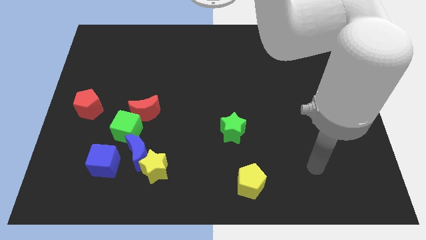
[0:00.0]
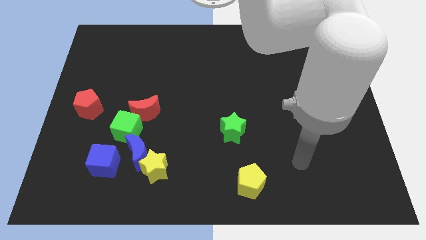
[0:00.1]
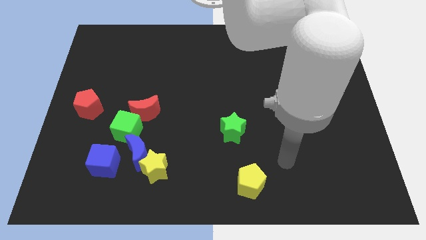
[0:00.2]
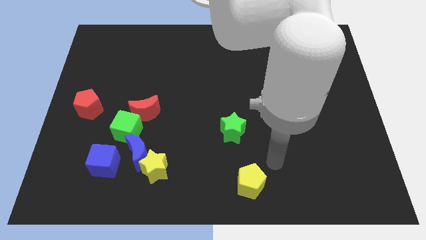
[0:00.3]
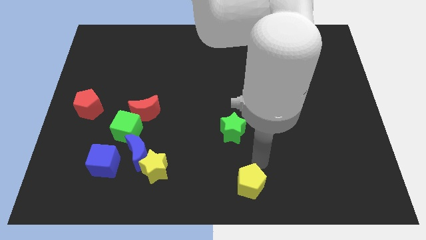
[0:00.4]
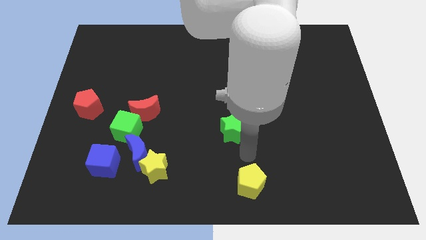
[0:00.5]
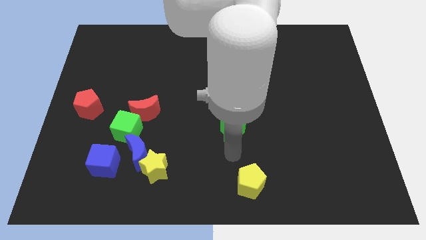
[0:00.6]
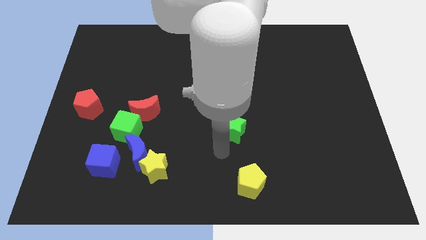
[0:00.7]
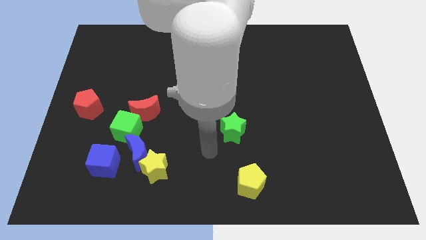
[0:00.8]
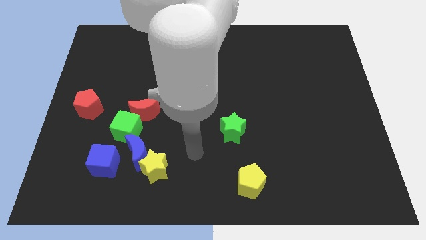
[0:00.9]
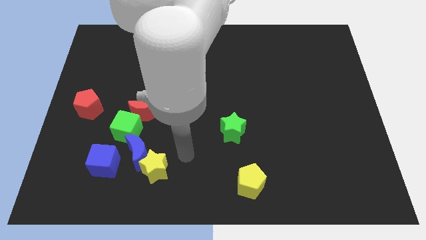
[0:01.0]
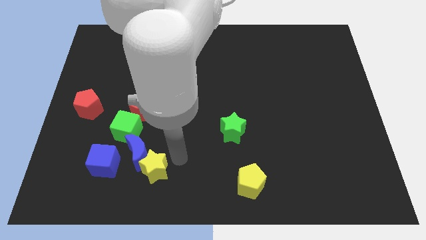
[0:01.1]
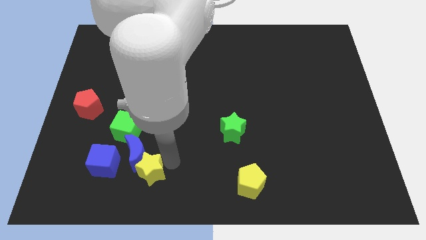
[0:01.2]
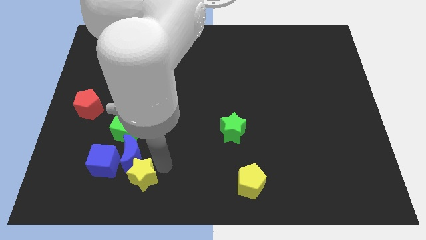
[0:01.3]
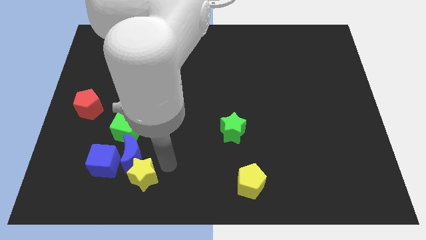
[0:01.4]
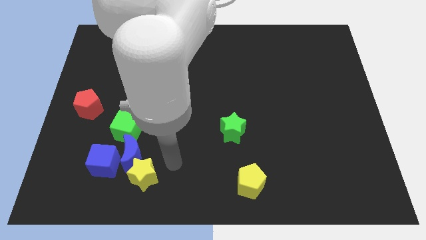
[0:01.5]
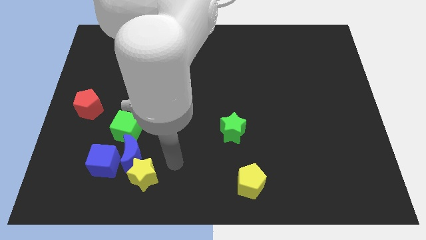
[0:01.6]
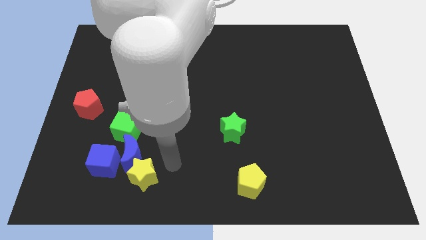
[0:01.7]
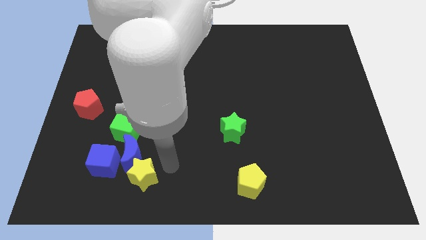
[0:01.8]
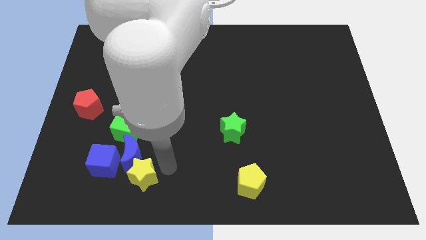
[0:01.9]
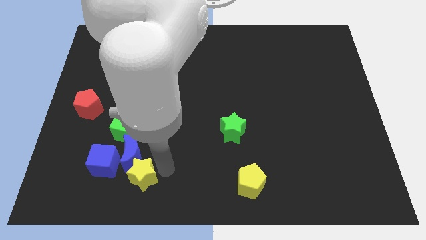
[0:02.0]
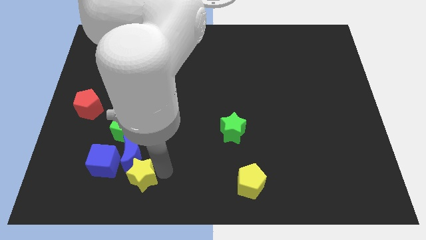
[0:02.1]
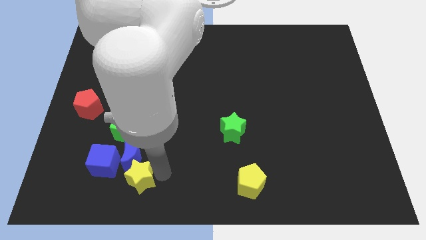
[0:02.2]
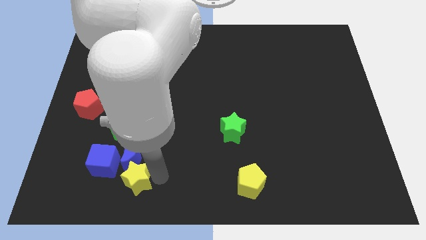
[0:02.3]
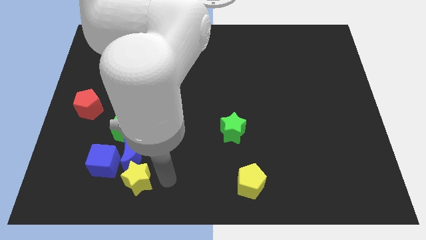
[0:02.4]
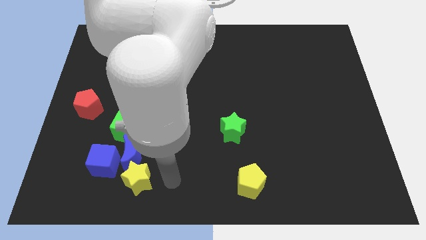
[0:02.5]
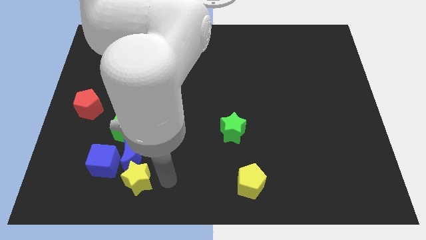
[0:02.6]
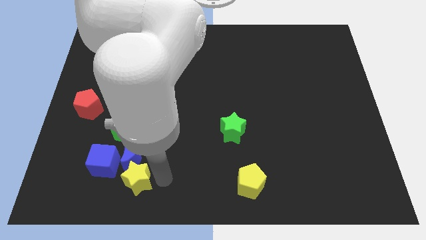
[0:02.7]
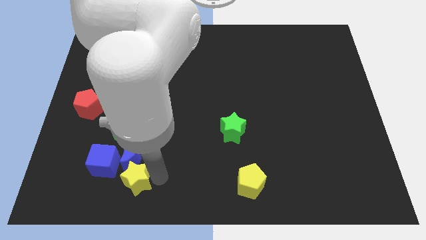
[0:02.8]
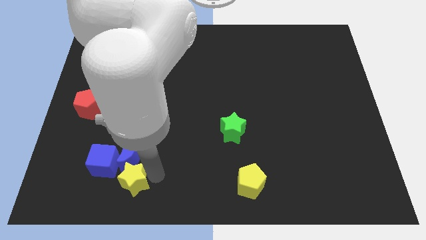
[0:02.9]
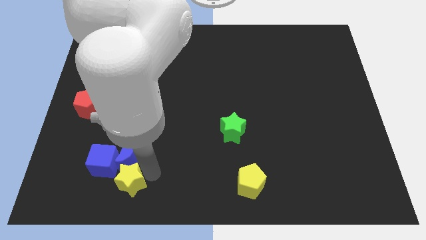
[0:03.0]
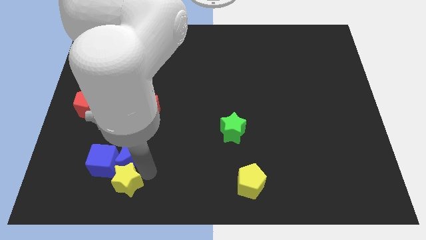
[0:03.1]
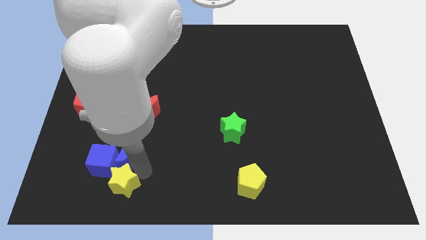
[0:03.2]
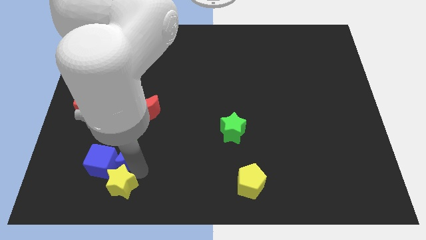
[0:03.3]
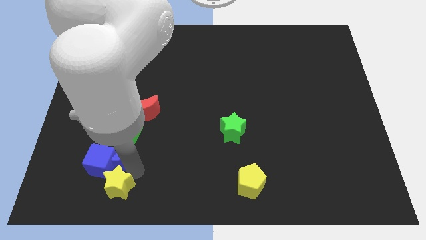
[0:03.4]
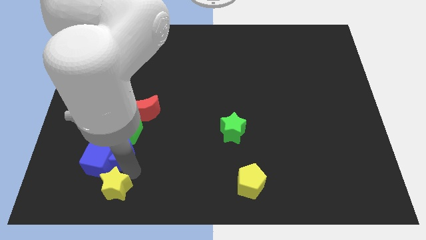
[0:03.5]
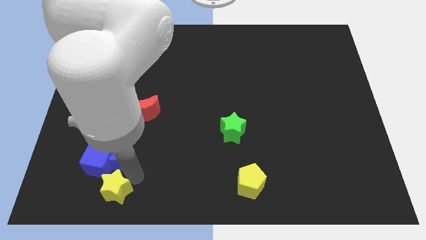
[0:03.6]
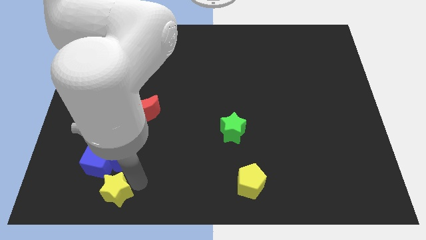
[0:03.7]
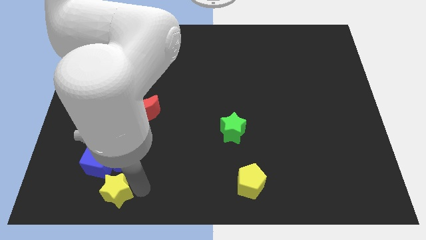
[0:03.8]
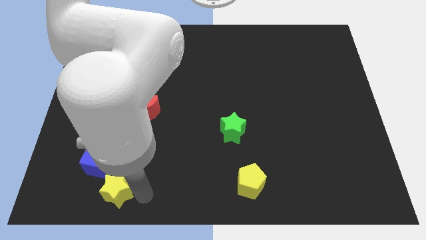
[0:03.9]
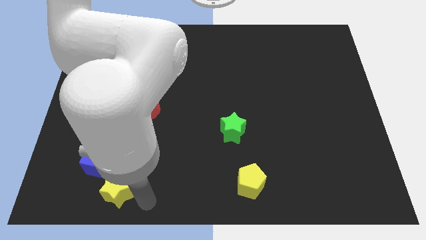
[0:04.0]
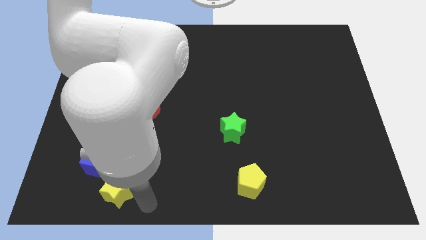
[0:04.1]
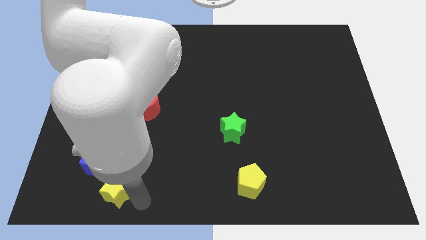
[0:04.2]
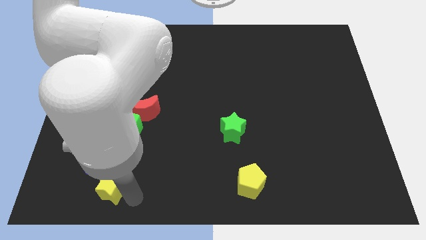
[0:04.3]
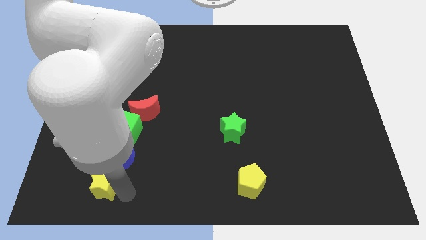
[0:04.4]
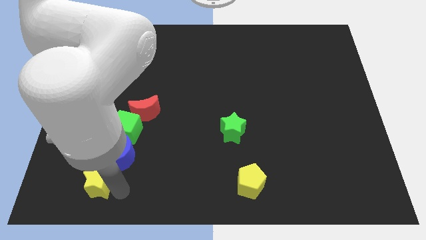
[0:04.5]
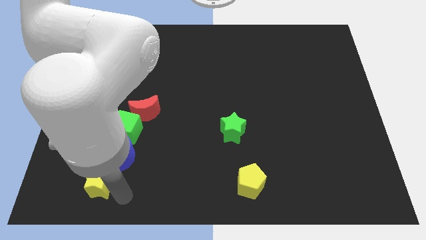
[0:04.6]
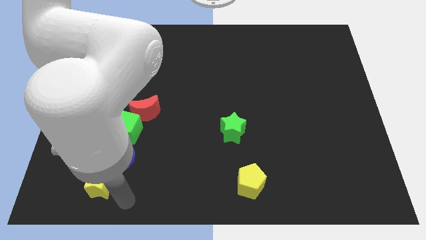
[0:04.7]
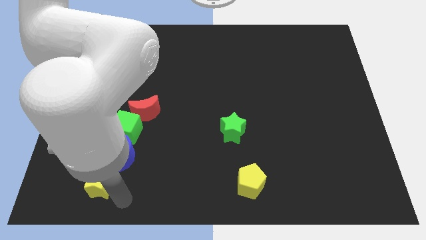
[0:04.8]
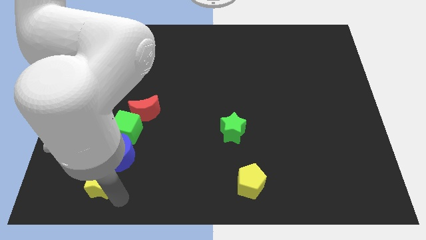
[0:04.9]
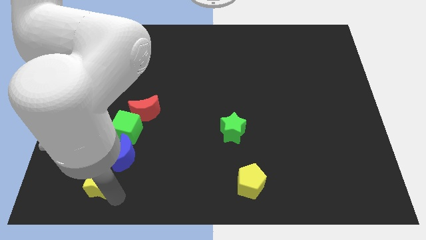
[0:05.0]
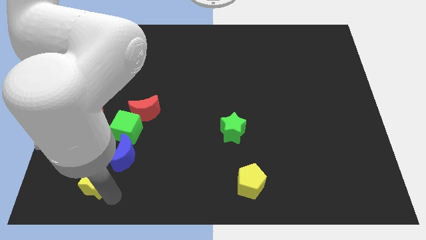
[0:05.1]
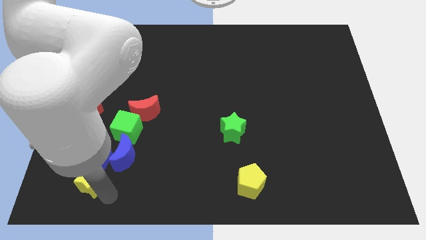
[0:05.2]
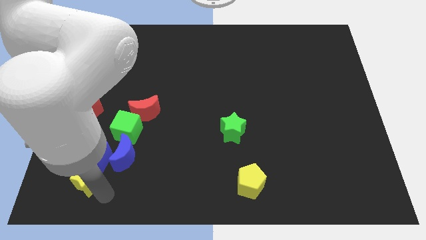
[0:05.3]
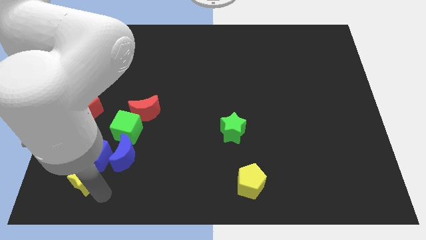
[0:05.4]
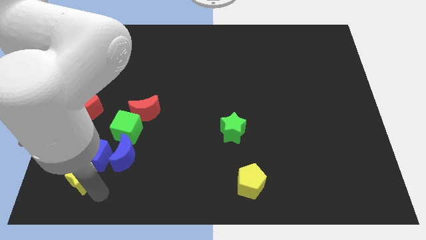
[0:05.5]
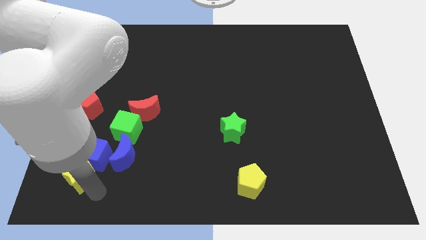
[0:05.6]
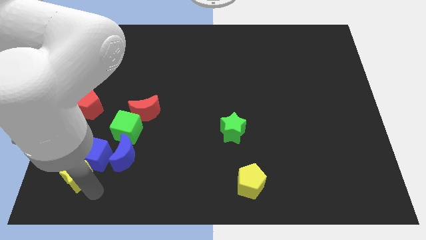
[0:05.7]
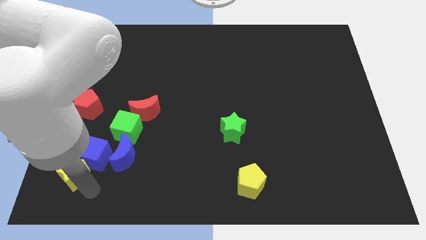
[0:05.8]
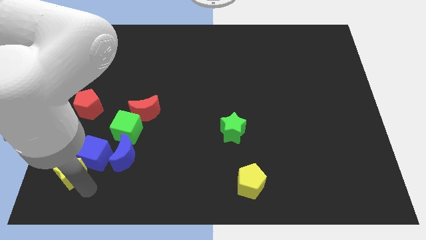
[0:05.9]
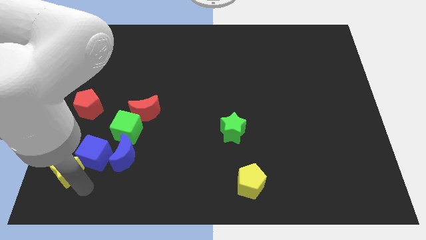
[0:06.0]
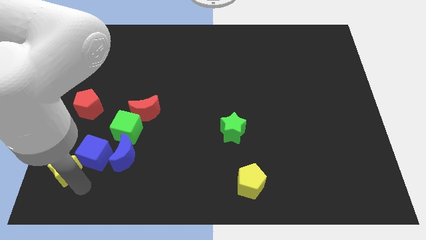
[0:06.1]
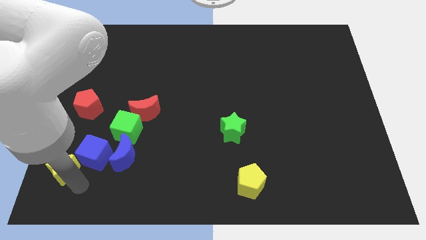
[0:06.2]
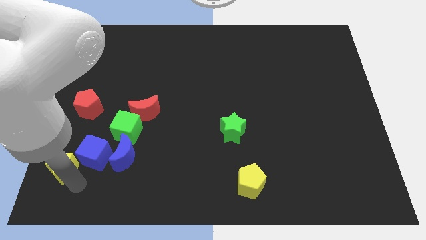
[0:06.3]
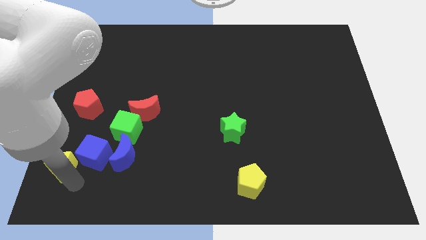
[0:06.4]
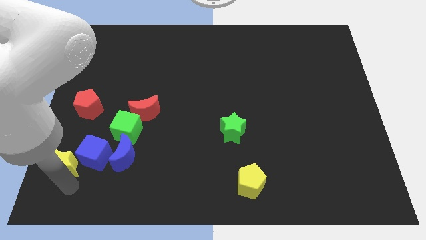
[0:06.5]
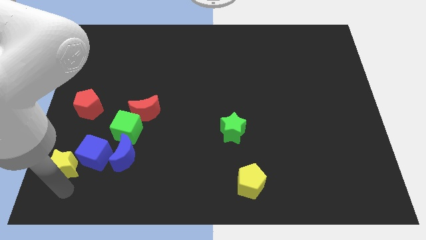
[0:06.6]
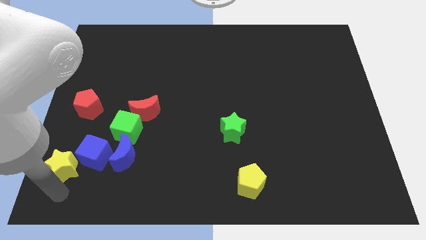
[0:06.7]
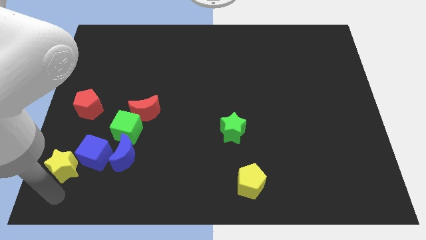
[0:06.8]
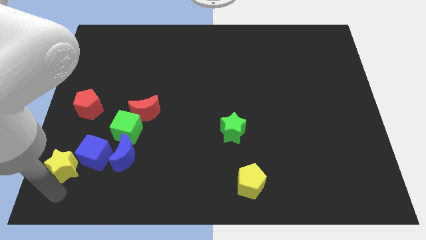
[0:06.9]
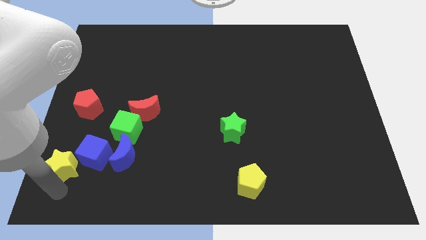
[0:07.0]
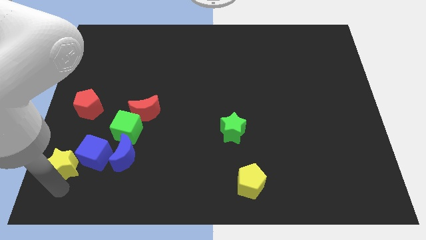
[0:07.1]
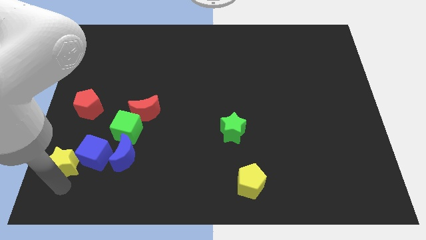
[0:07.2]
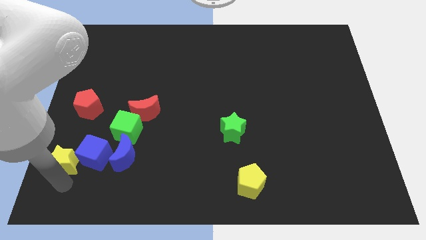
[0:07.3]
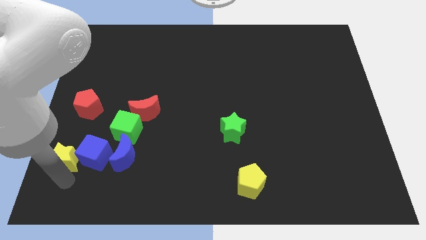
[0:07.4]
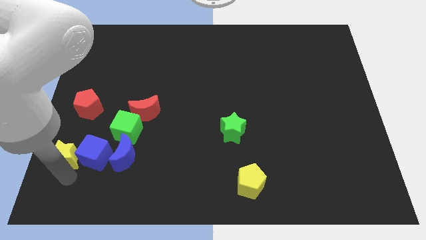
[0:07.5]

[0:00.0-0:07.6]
slide the yellow star slightly diagonally up and to the left
